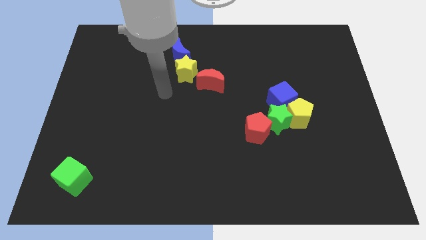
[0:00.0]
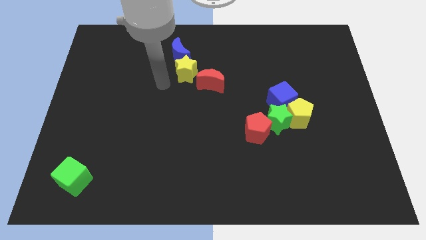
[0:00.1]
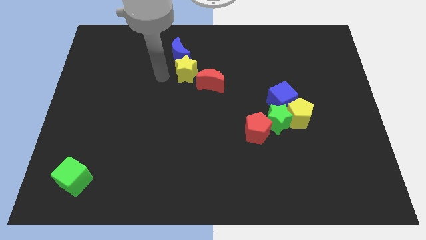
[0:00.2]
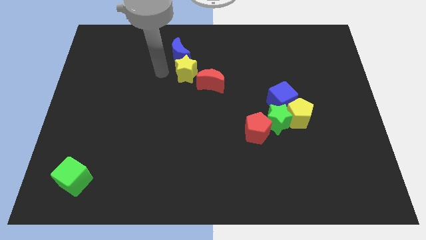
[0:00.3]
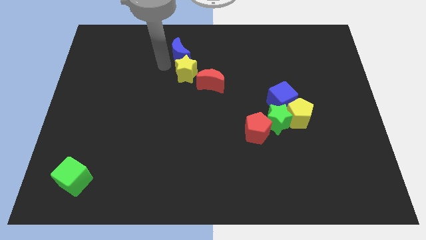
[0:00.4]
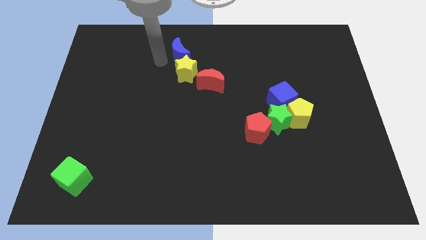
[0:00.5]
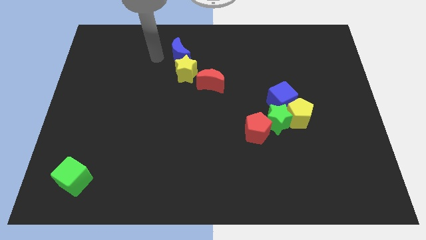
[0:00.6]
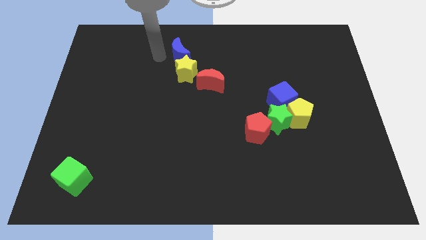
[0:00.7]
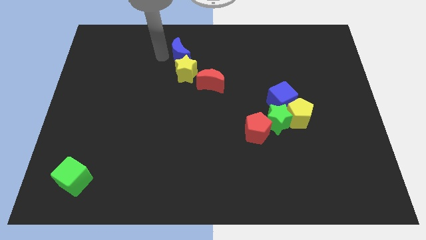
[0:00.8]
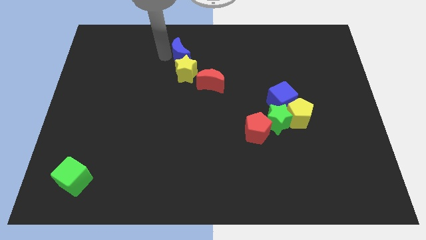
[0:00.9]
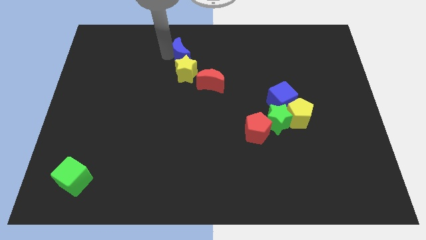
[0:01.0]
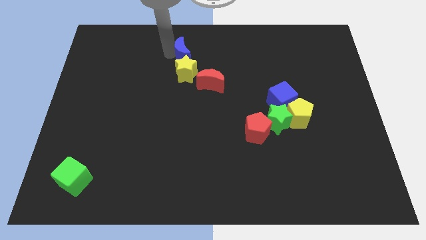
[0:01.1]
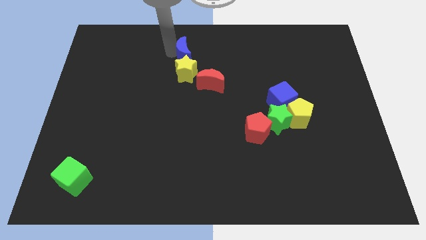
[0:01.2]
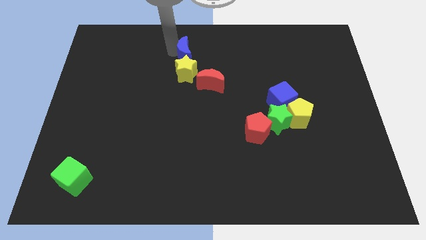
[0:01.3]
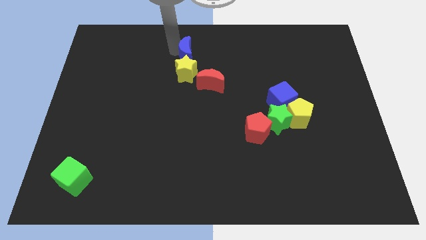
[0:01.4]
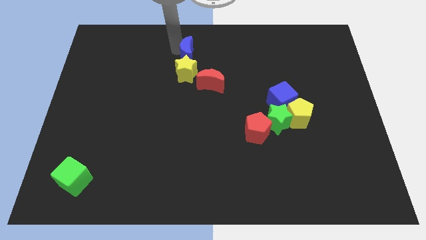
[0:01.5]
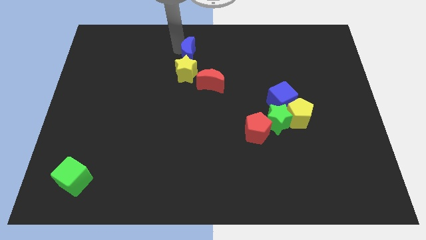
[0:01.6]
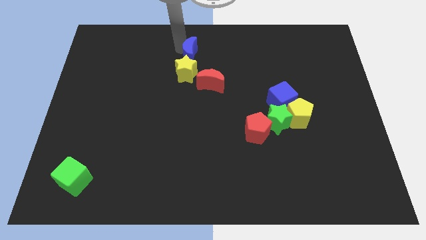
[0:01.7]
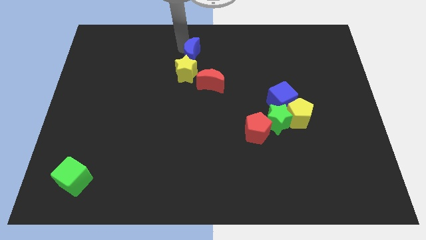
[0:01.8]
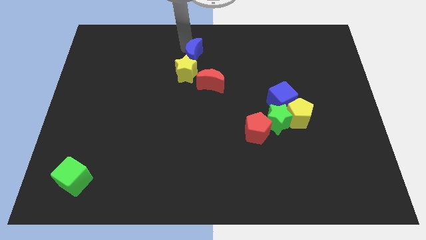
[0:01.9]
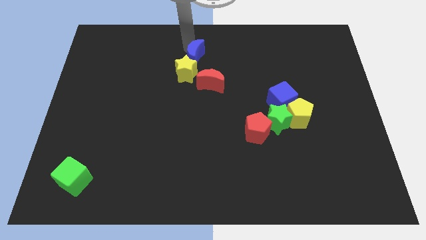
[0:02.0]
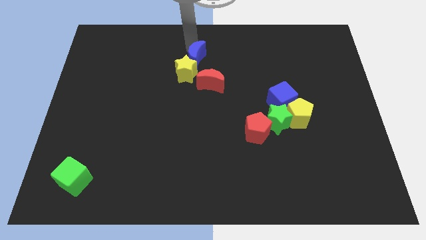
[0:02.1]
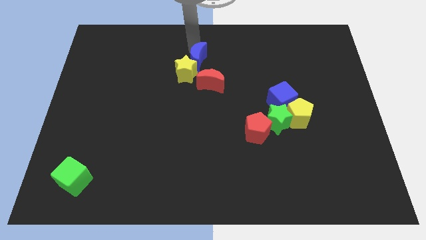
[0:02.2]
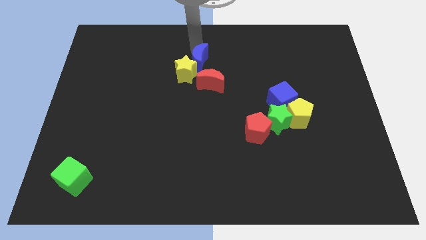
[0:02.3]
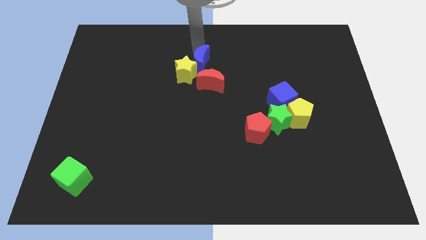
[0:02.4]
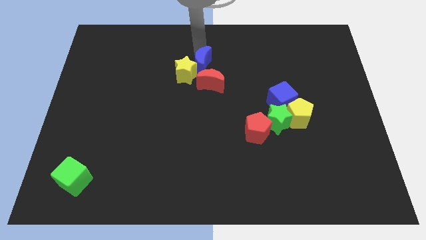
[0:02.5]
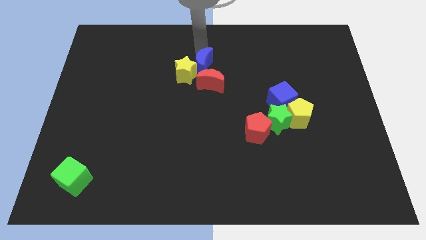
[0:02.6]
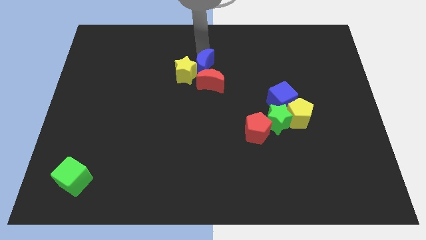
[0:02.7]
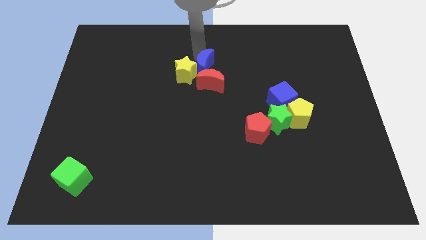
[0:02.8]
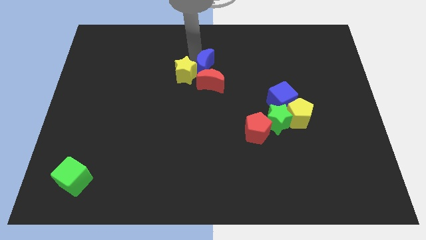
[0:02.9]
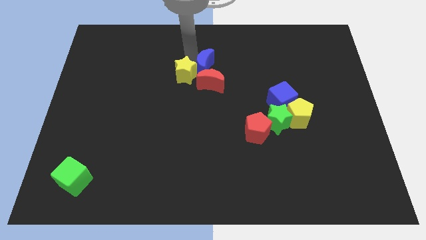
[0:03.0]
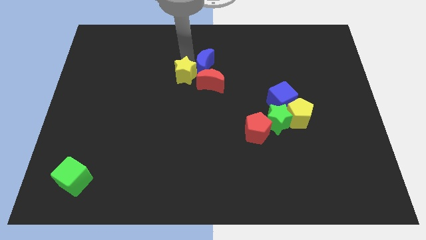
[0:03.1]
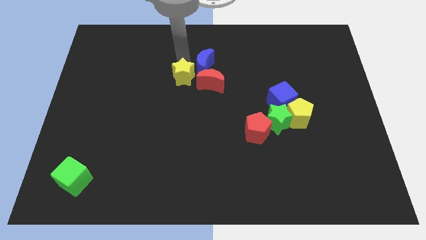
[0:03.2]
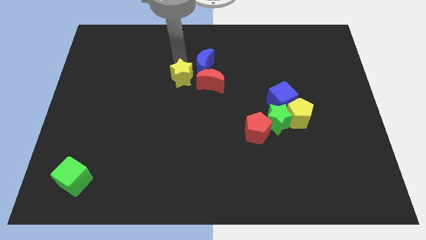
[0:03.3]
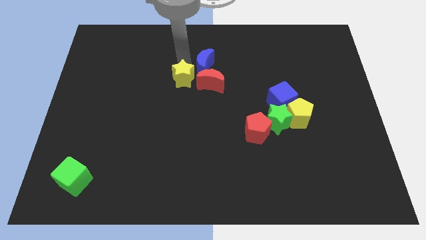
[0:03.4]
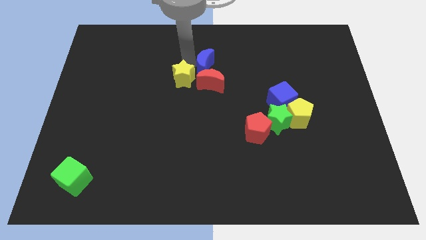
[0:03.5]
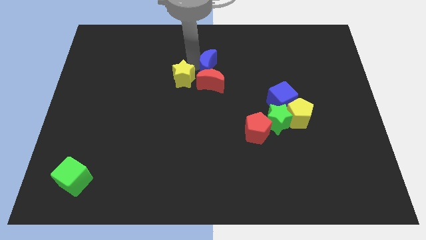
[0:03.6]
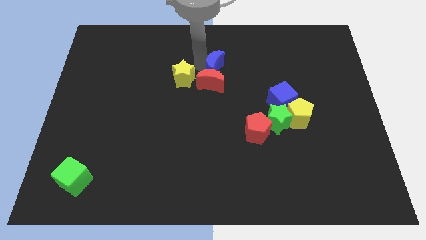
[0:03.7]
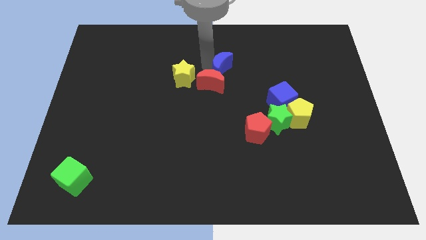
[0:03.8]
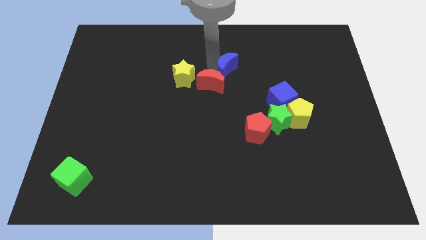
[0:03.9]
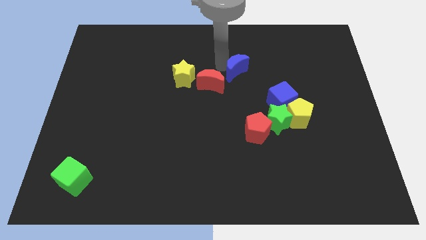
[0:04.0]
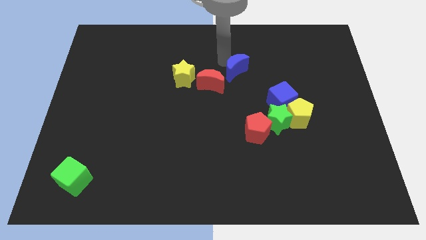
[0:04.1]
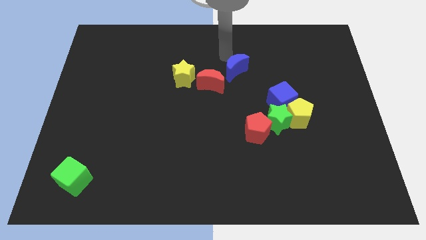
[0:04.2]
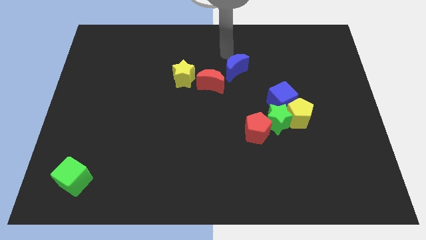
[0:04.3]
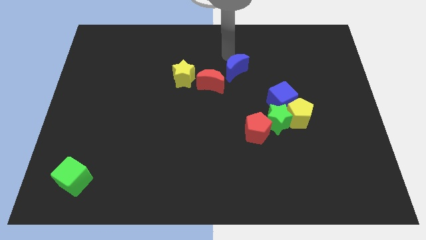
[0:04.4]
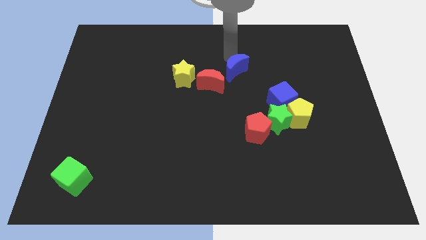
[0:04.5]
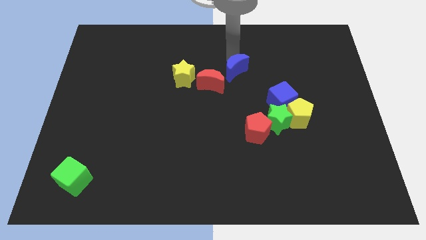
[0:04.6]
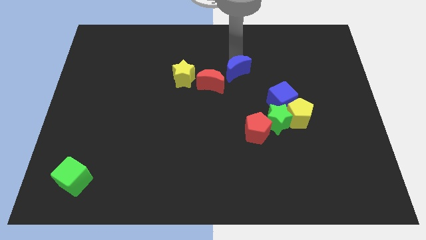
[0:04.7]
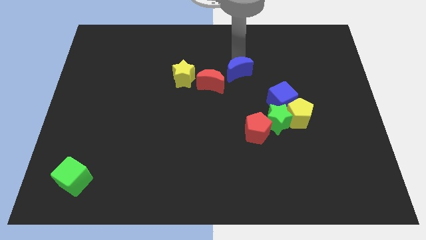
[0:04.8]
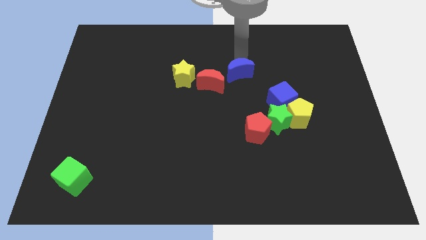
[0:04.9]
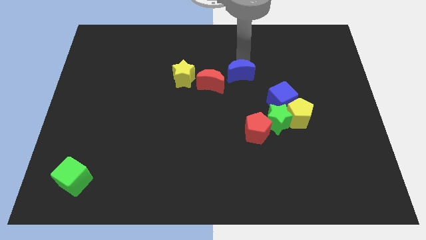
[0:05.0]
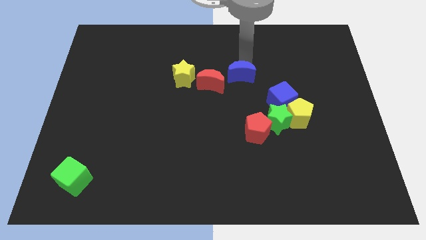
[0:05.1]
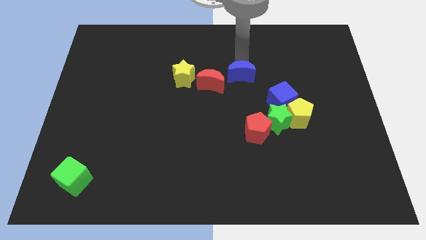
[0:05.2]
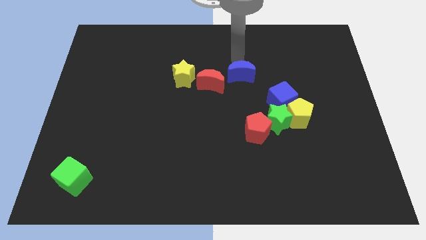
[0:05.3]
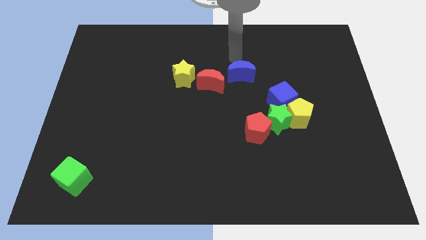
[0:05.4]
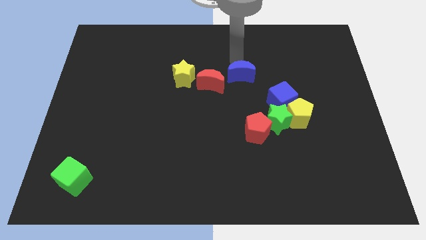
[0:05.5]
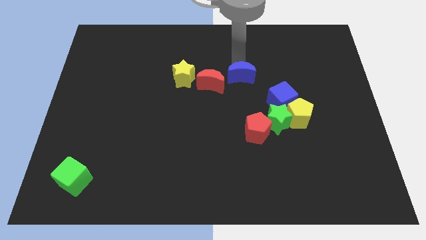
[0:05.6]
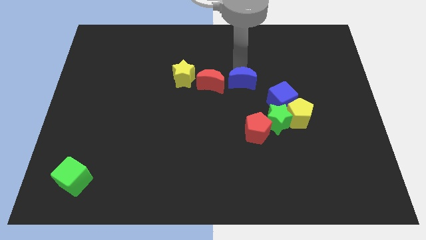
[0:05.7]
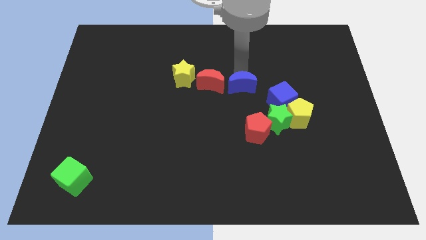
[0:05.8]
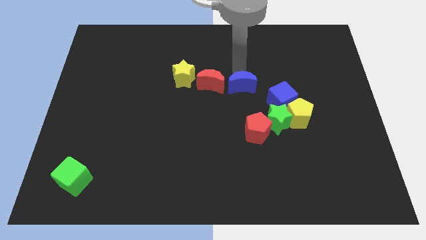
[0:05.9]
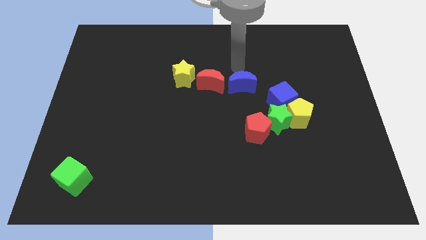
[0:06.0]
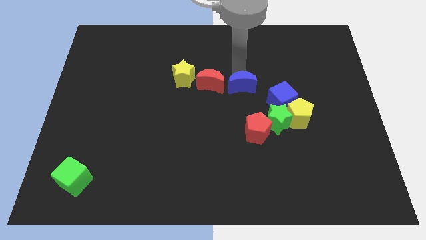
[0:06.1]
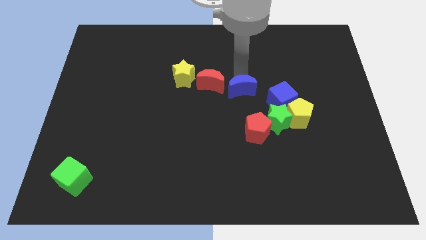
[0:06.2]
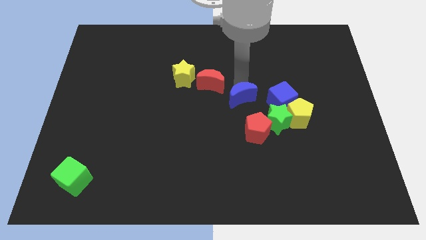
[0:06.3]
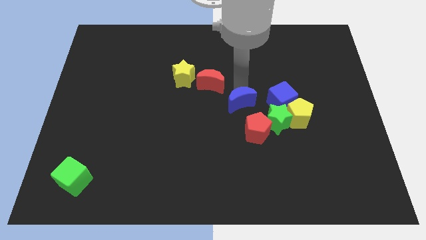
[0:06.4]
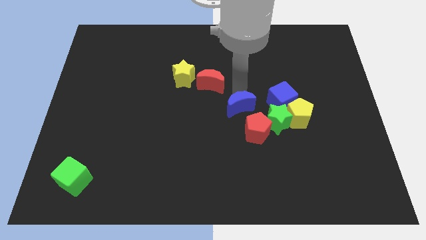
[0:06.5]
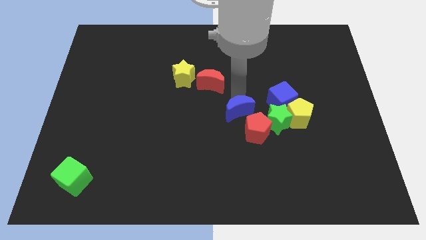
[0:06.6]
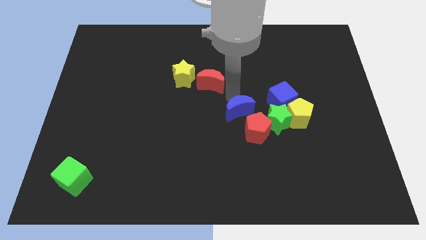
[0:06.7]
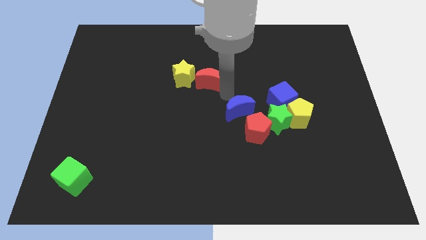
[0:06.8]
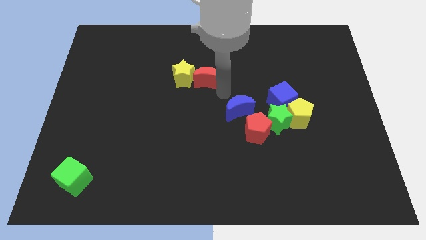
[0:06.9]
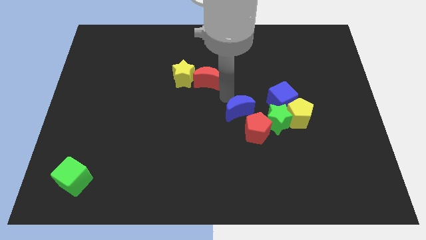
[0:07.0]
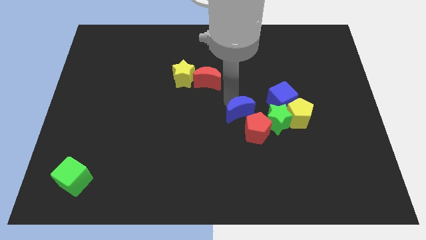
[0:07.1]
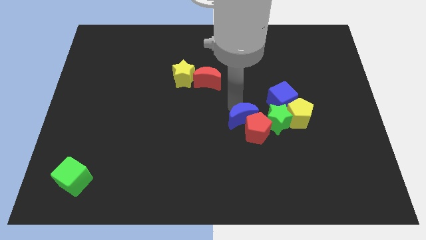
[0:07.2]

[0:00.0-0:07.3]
move the blue moon towards the red pentagon

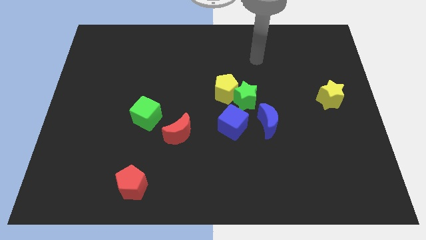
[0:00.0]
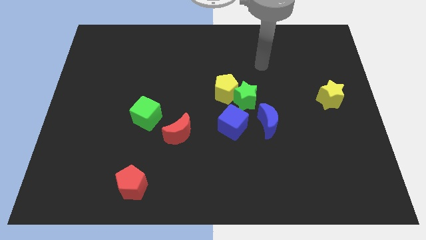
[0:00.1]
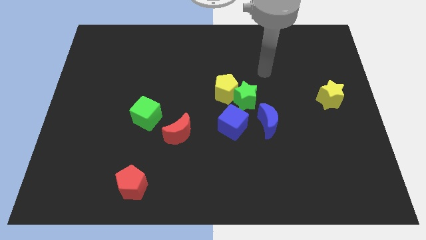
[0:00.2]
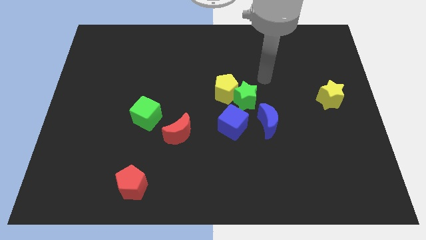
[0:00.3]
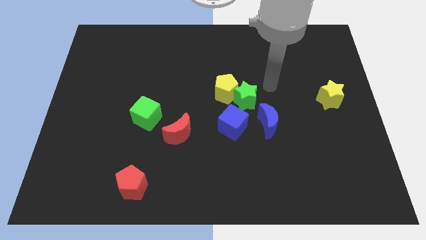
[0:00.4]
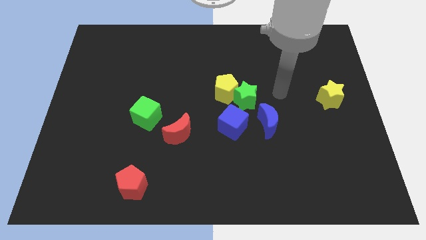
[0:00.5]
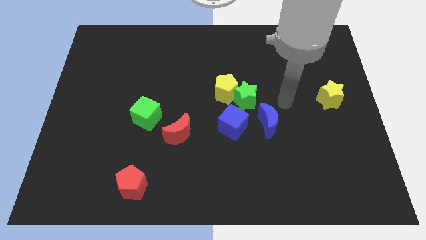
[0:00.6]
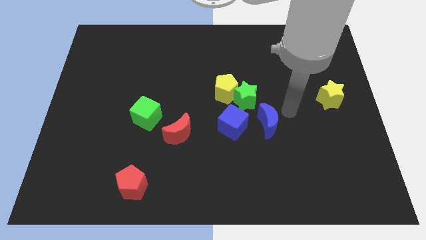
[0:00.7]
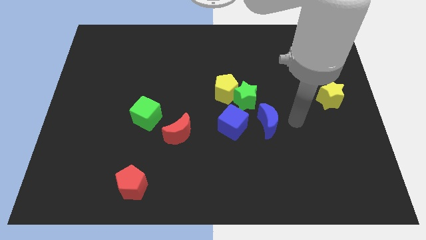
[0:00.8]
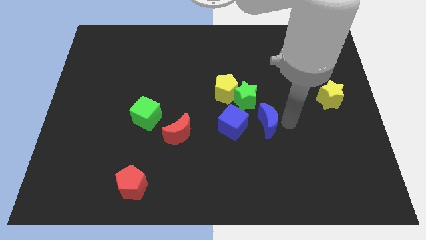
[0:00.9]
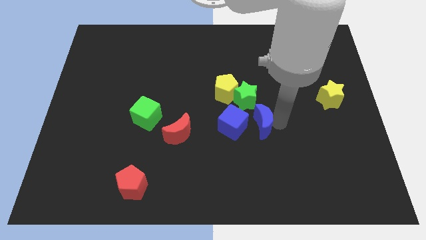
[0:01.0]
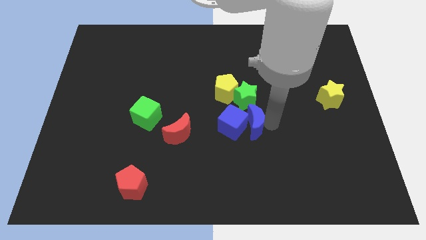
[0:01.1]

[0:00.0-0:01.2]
slide the blue moon next to the blue cube
